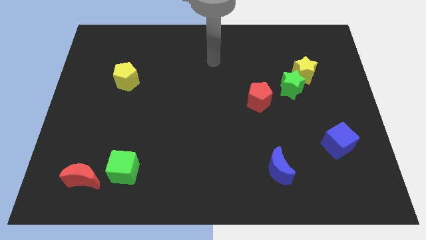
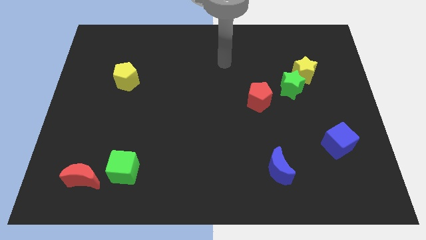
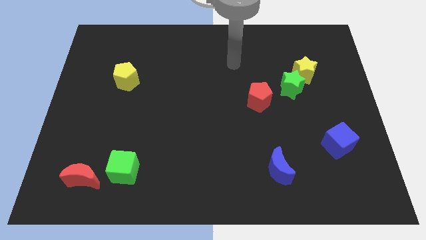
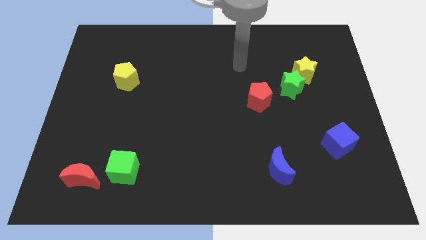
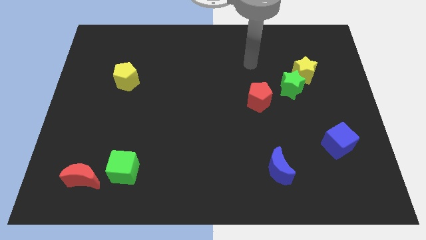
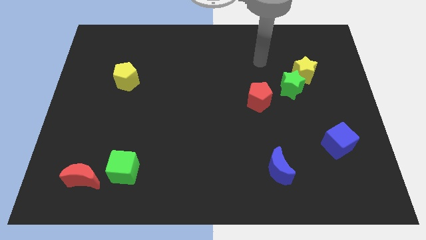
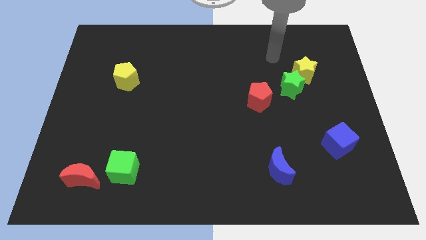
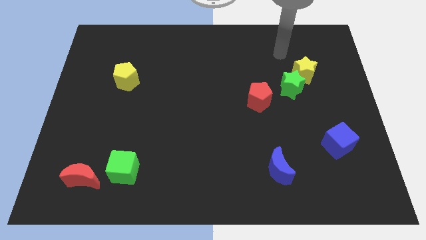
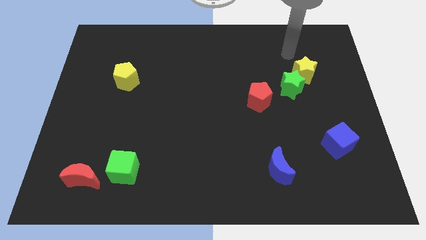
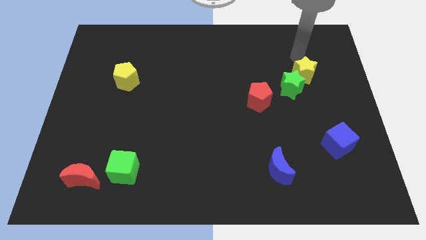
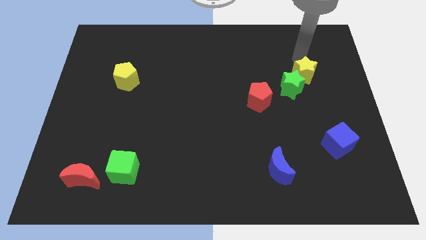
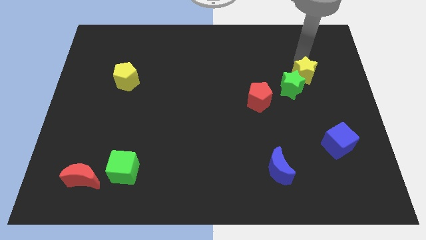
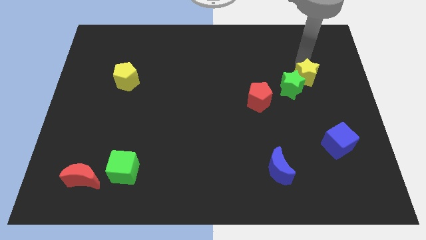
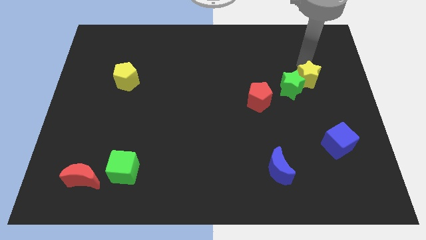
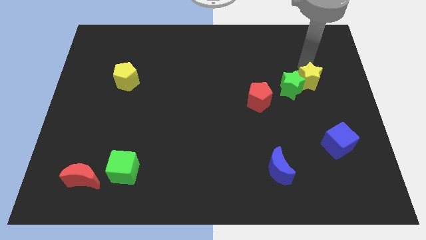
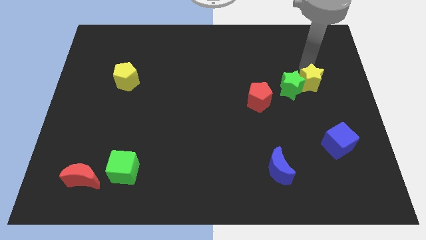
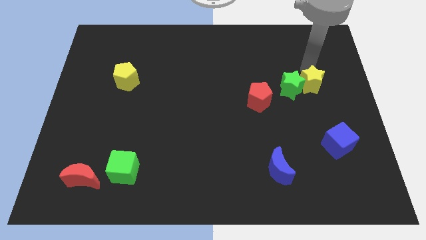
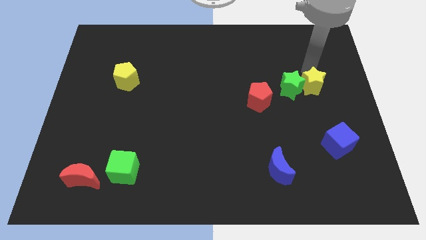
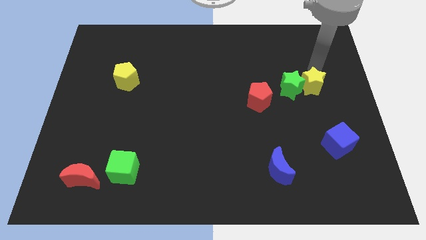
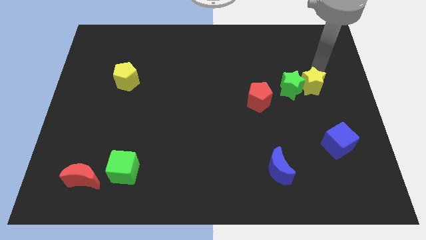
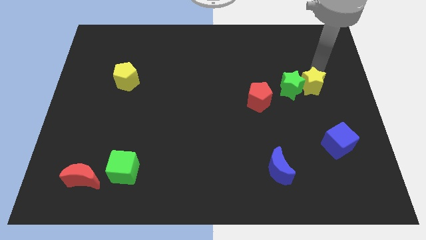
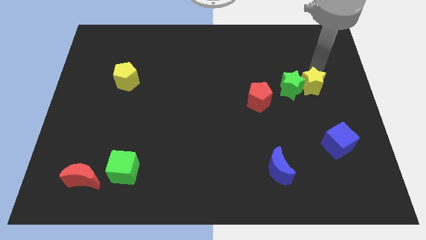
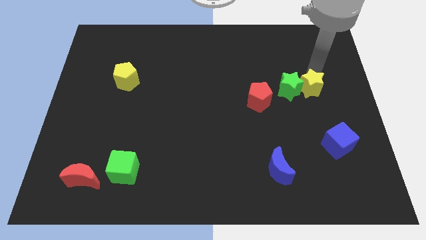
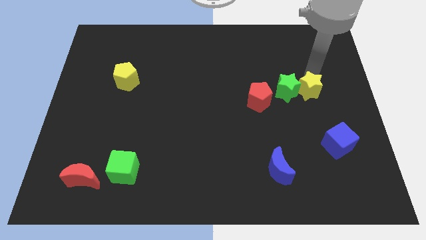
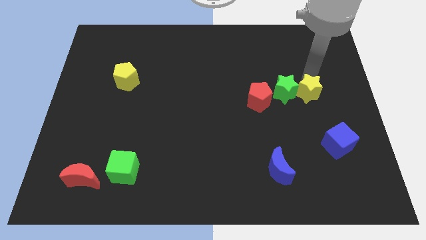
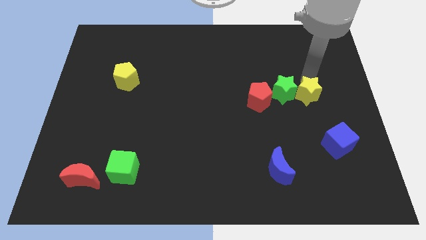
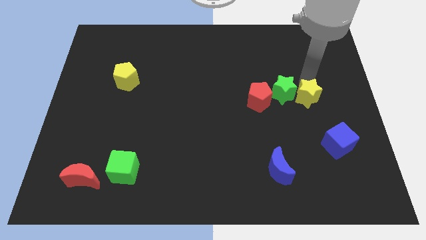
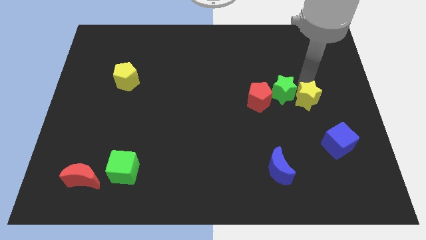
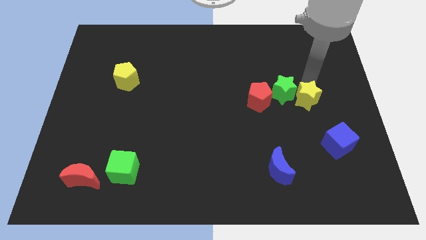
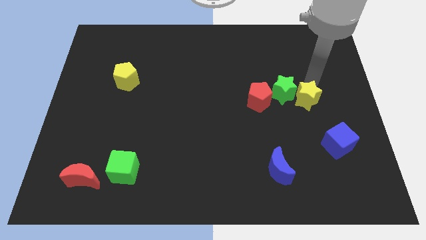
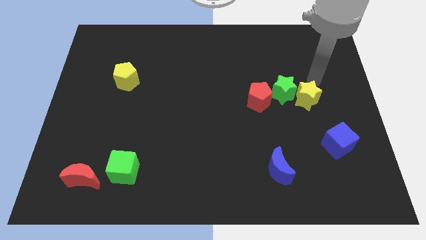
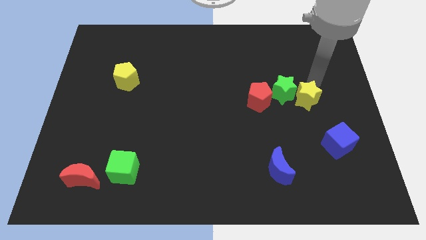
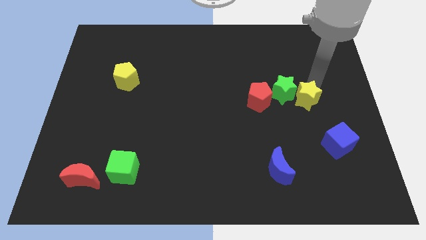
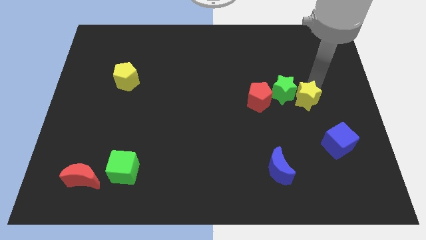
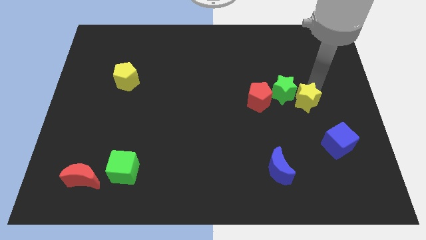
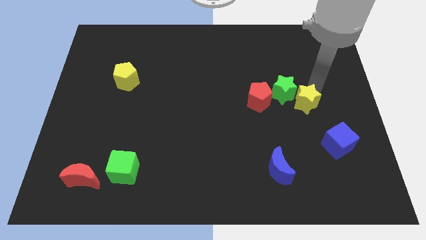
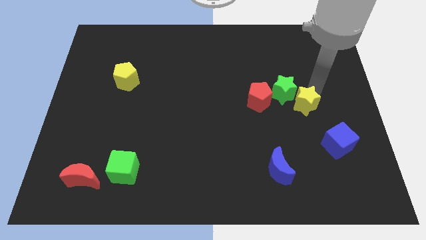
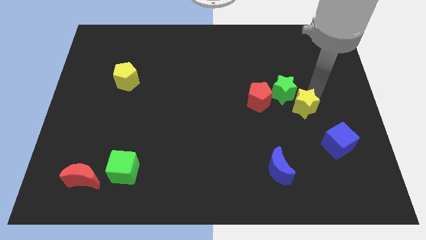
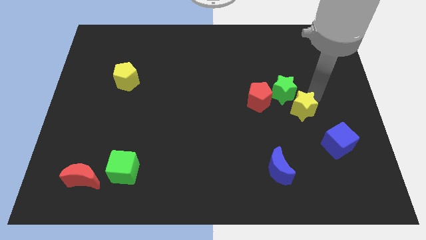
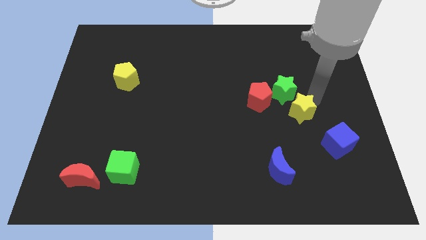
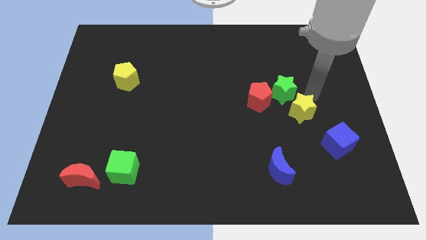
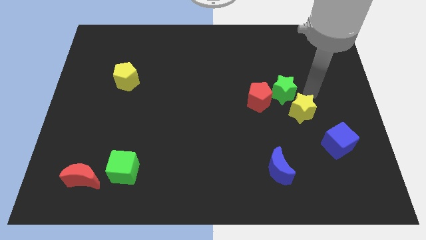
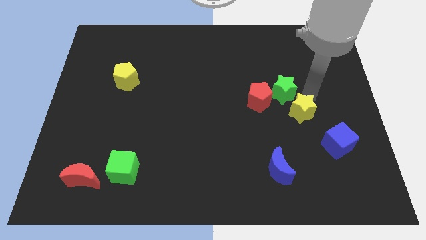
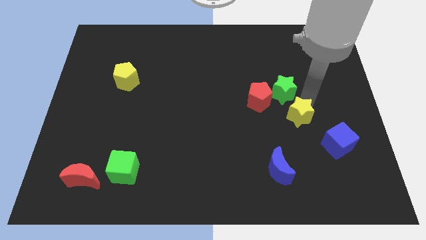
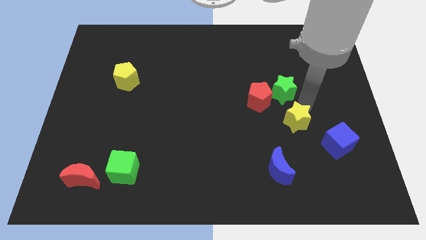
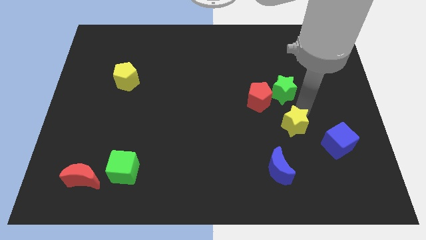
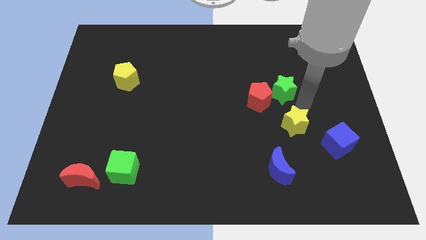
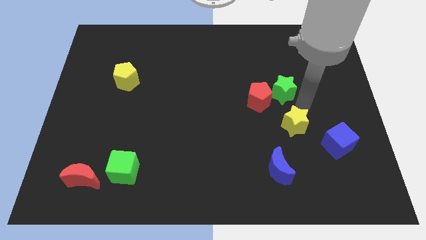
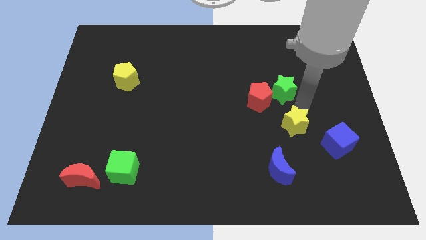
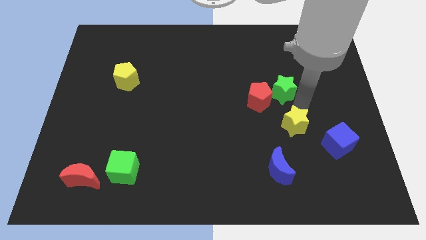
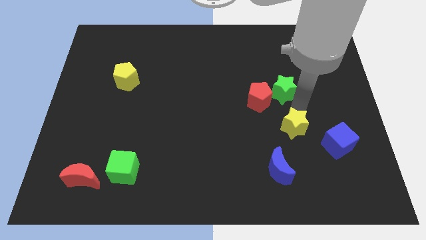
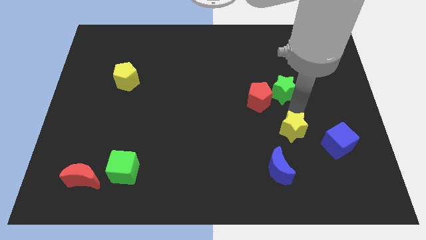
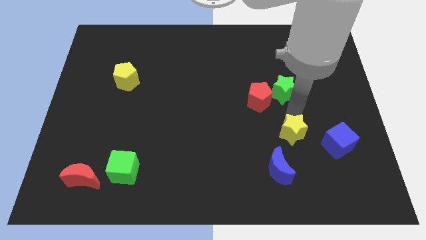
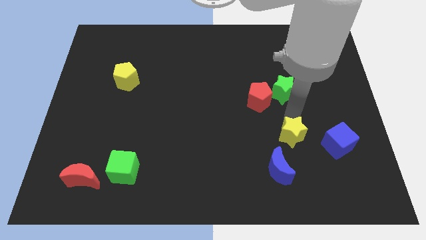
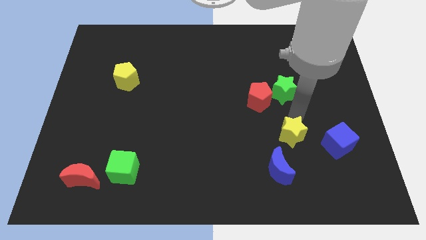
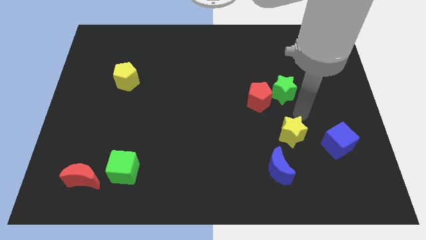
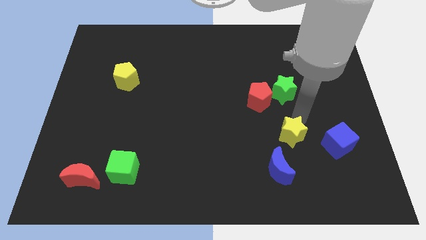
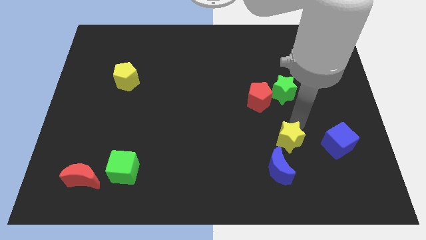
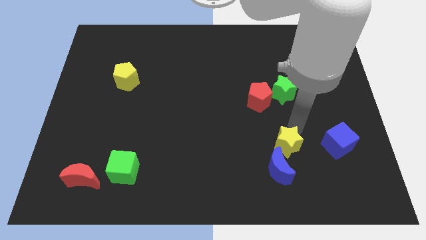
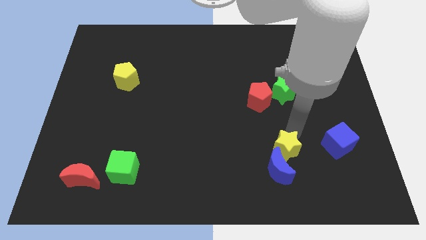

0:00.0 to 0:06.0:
move the yellow star close to the blue moon

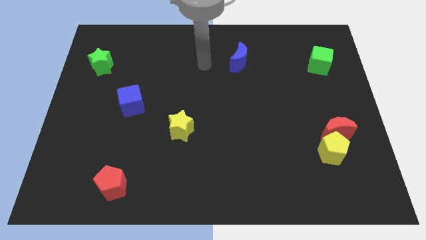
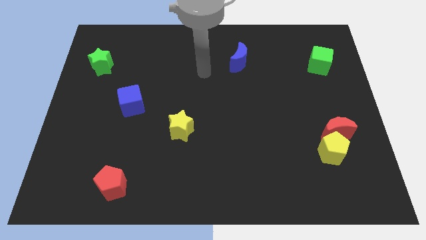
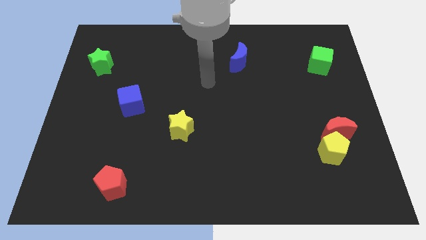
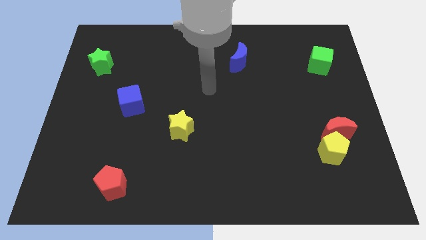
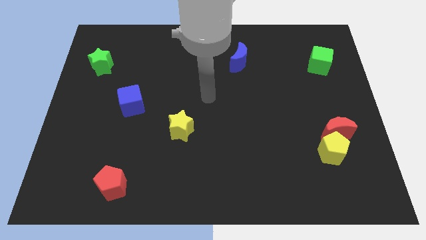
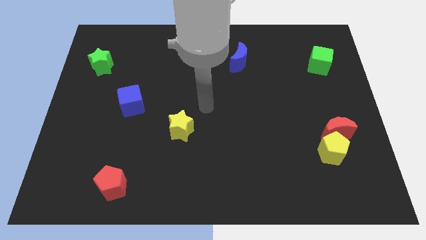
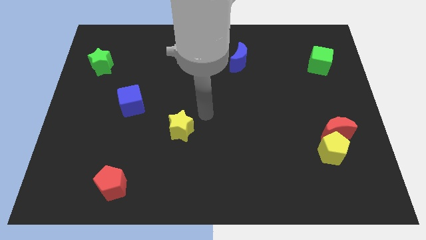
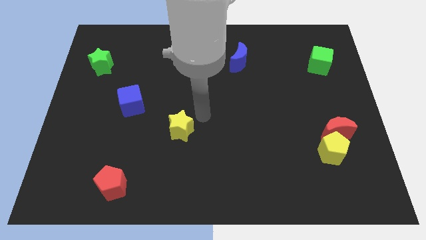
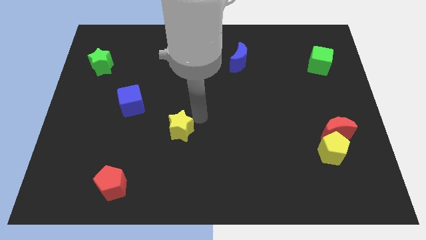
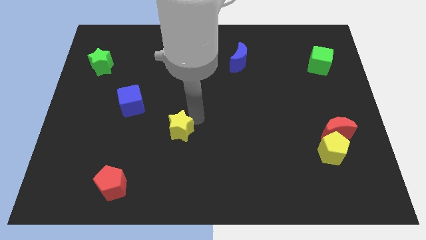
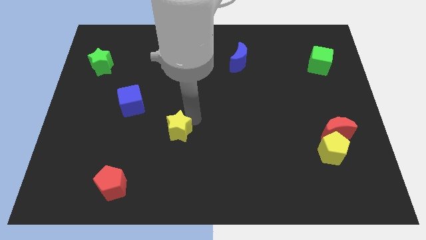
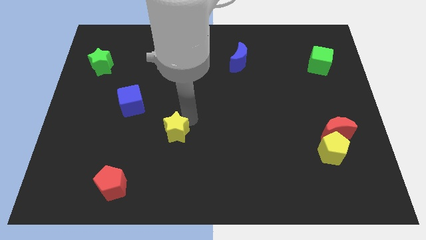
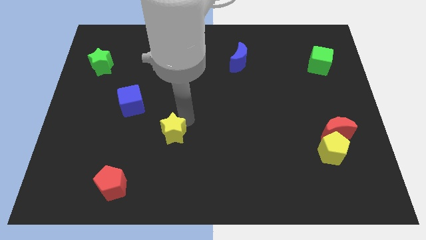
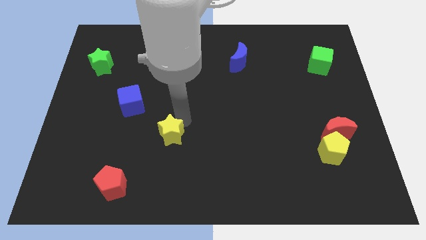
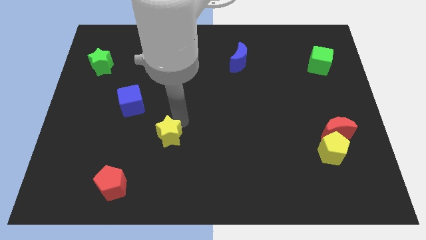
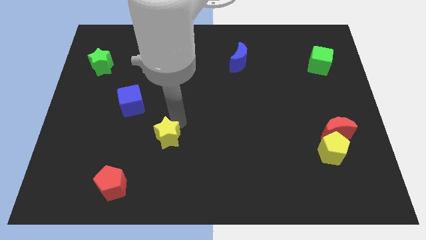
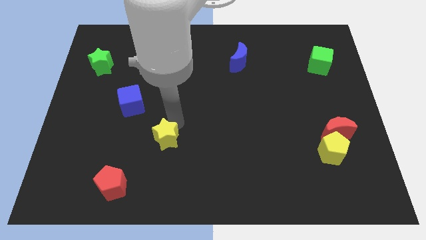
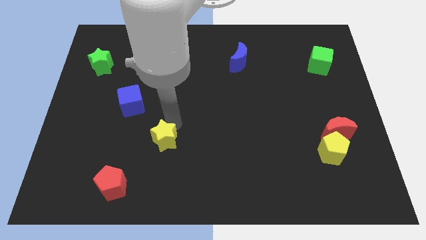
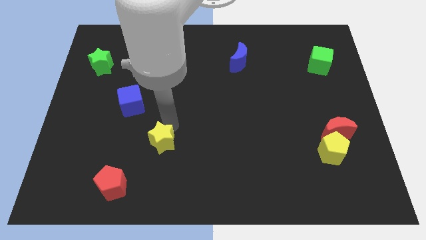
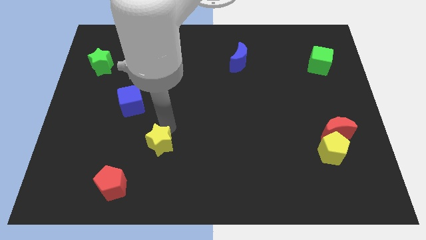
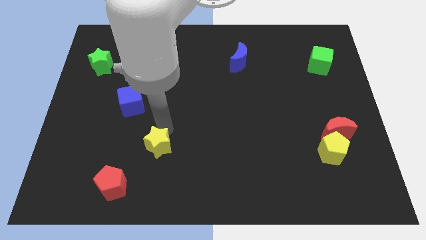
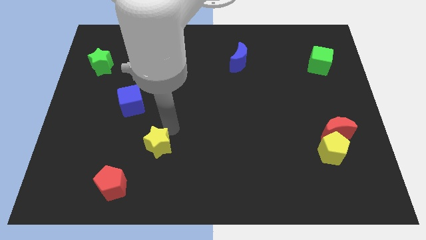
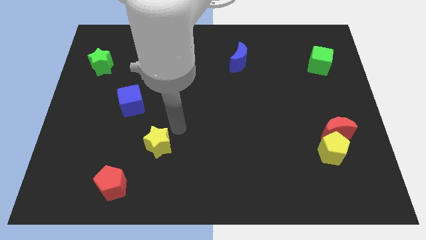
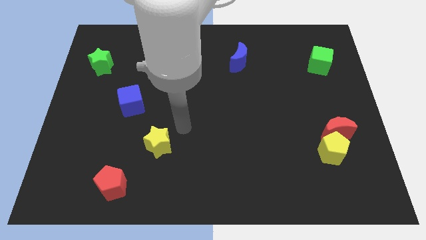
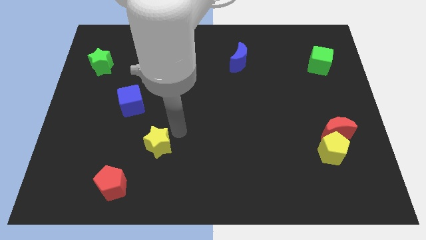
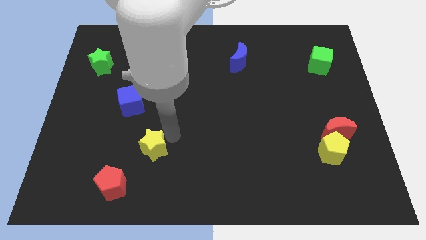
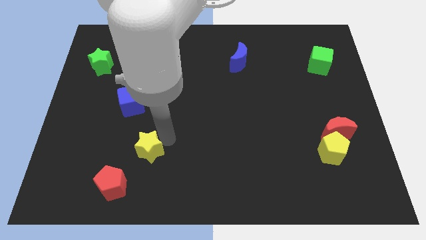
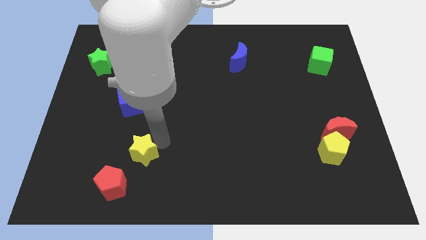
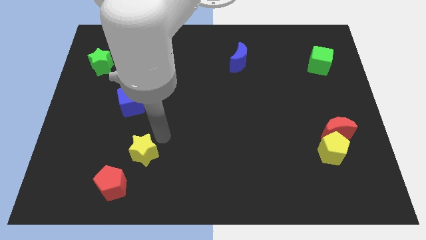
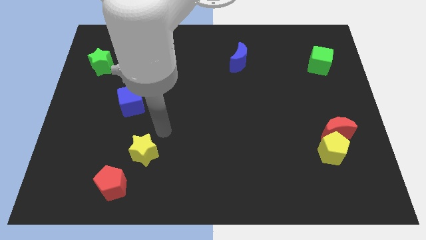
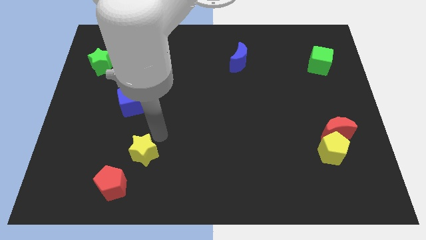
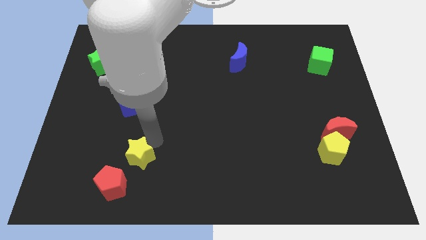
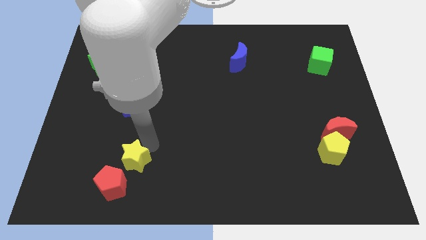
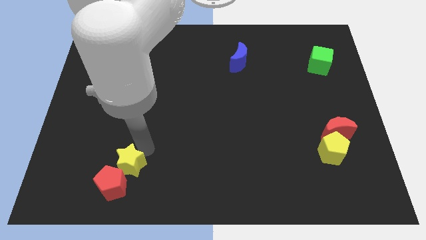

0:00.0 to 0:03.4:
push the yellow star next to the red pentagon
